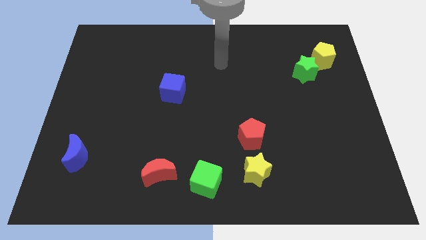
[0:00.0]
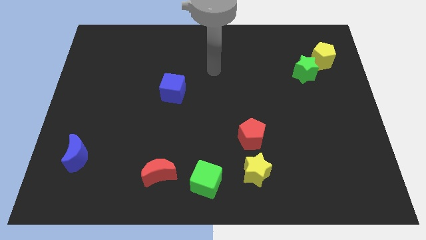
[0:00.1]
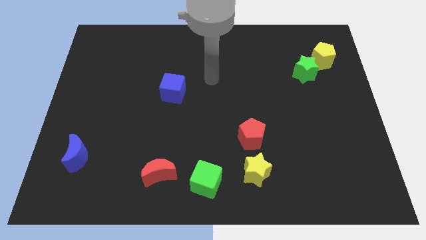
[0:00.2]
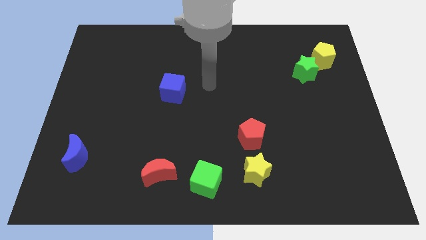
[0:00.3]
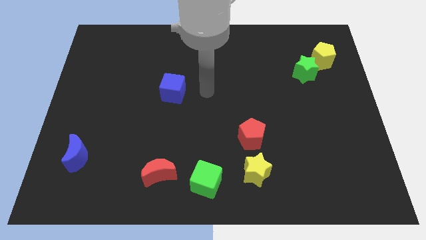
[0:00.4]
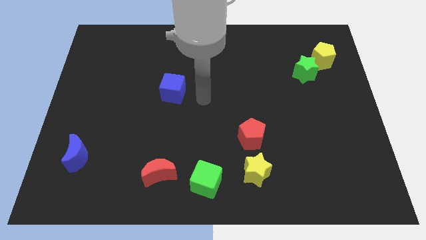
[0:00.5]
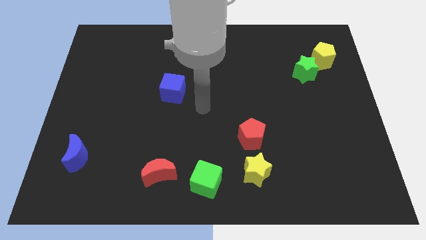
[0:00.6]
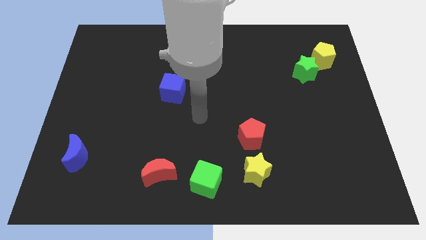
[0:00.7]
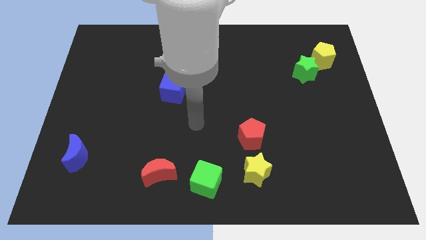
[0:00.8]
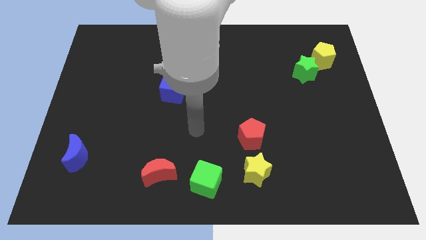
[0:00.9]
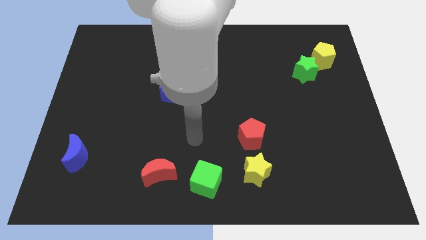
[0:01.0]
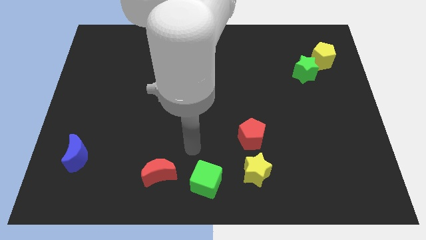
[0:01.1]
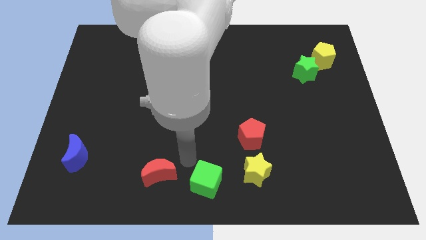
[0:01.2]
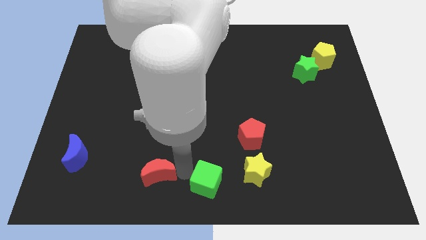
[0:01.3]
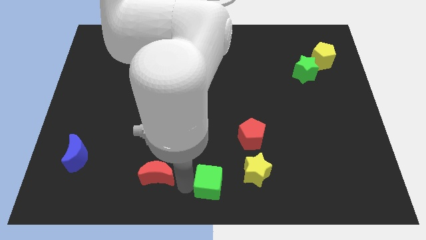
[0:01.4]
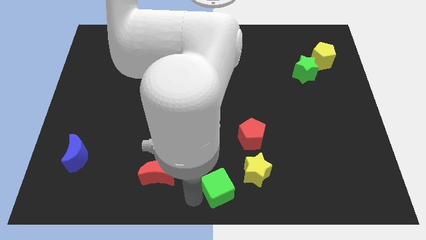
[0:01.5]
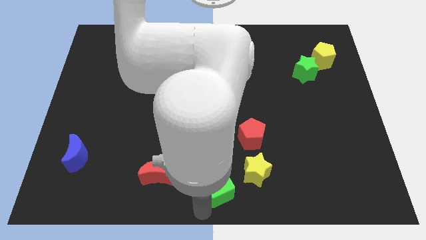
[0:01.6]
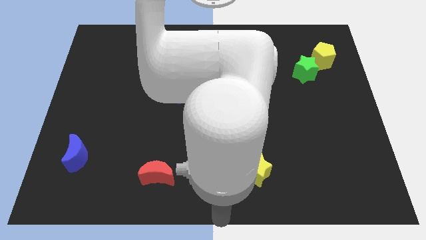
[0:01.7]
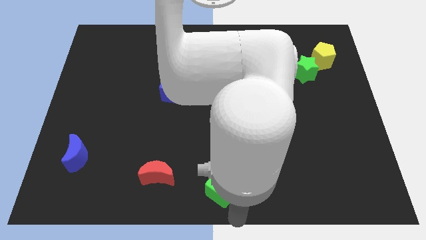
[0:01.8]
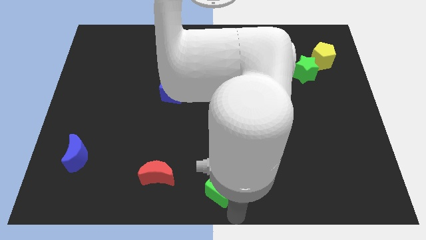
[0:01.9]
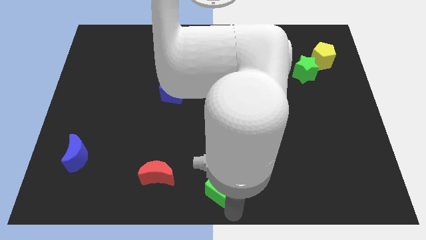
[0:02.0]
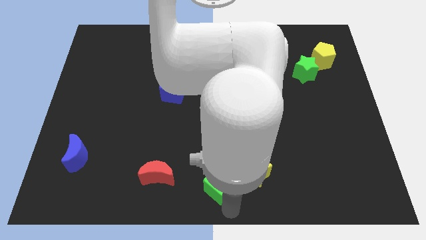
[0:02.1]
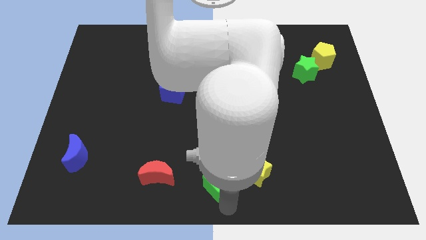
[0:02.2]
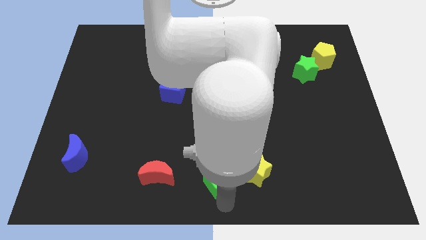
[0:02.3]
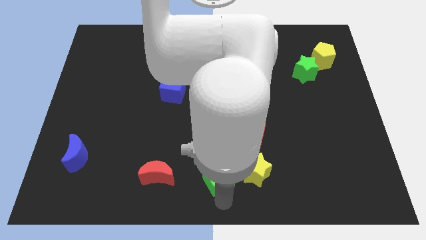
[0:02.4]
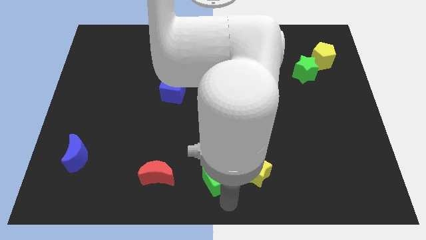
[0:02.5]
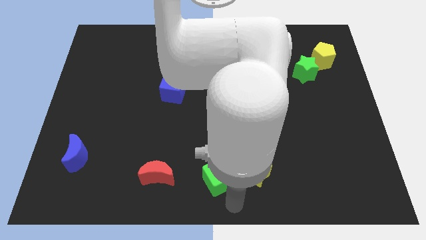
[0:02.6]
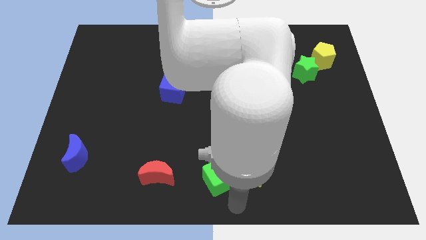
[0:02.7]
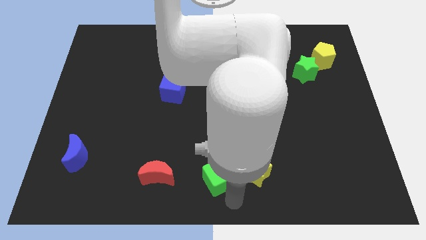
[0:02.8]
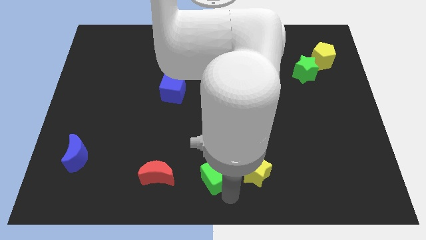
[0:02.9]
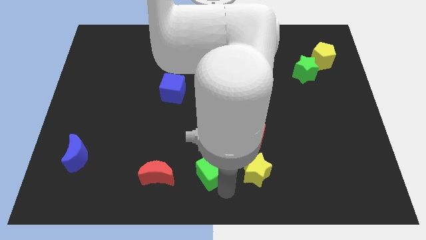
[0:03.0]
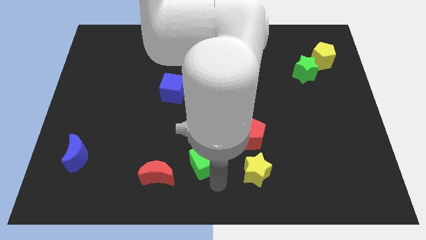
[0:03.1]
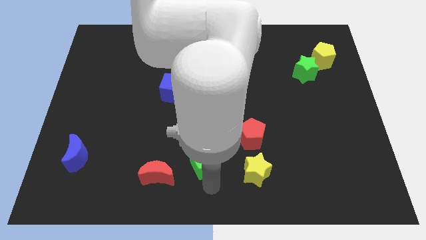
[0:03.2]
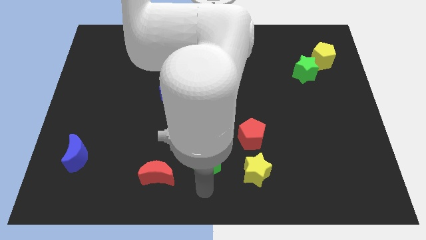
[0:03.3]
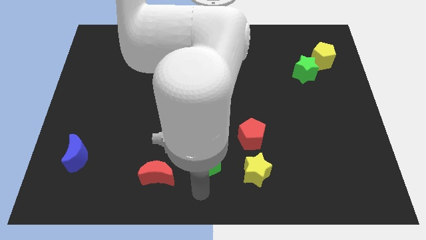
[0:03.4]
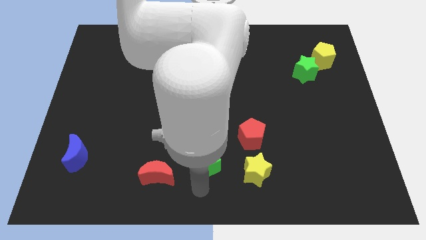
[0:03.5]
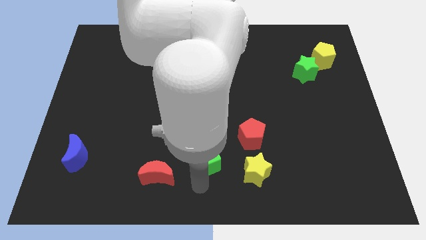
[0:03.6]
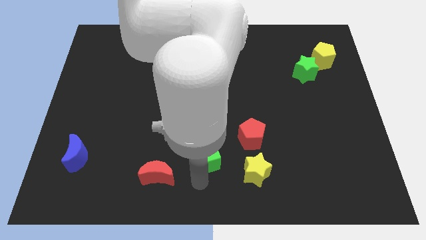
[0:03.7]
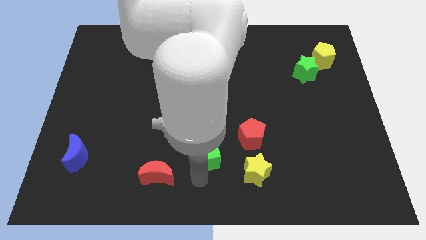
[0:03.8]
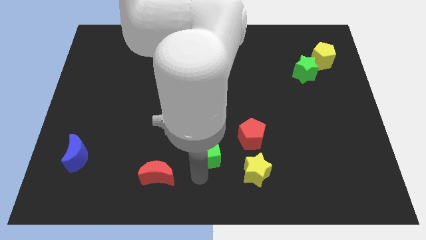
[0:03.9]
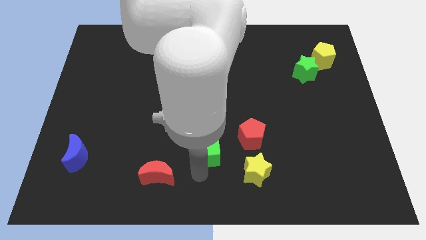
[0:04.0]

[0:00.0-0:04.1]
move the green cube slightly upwards

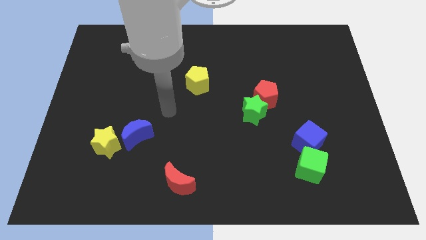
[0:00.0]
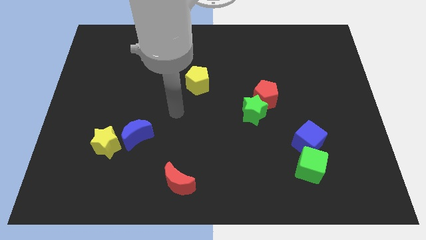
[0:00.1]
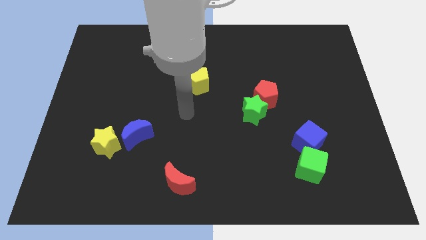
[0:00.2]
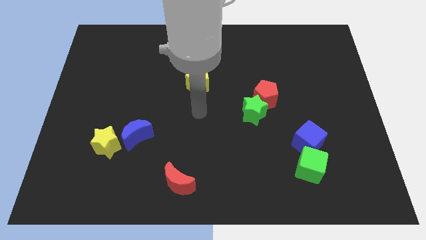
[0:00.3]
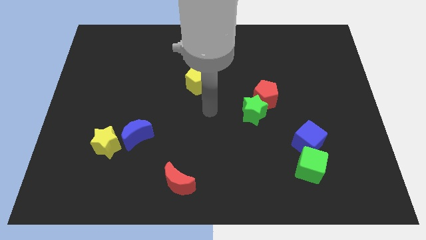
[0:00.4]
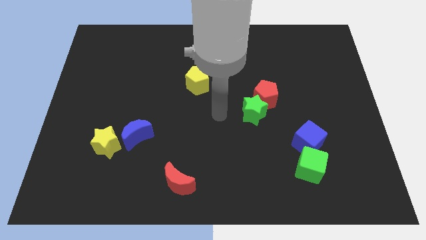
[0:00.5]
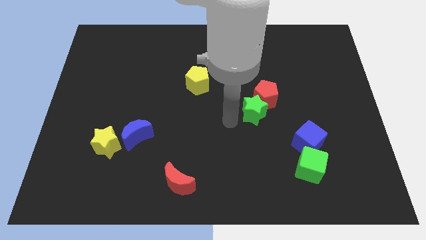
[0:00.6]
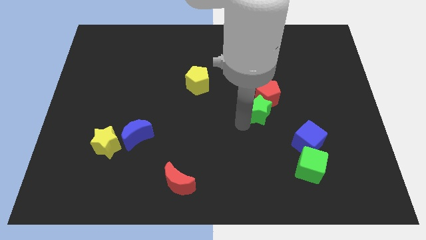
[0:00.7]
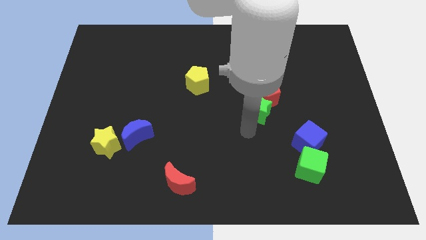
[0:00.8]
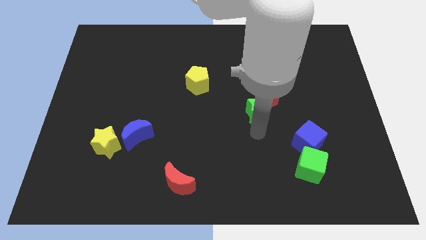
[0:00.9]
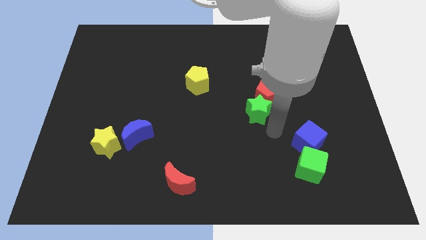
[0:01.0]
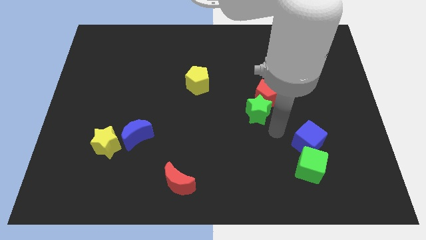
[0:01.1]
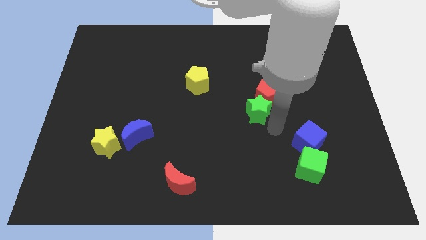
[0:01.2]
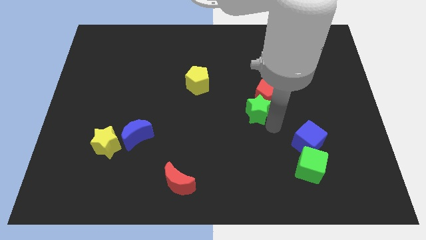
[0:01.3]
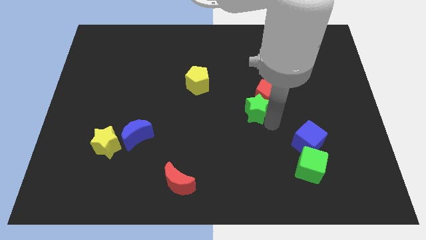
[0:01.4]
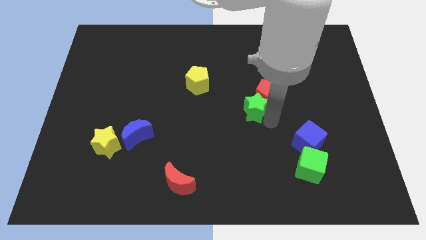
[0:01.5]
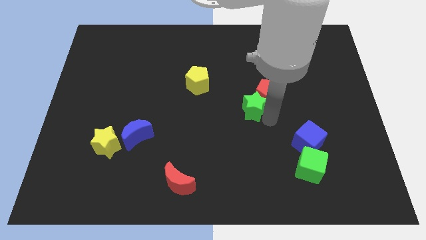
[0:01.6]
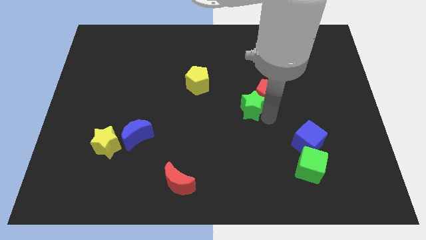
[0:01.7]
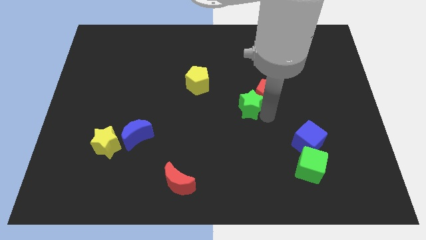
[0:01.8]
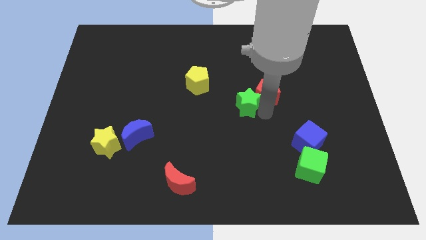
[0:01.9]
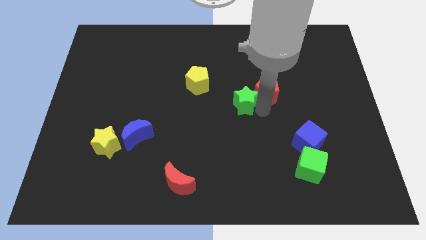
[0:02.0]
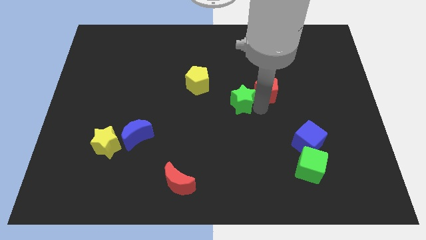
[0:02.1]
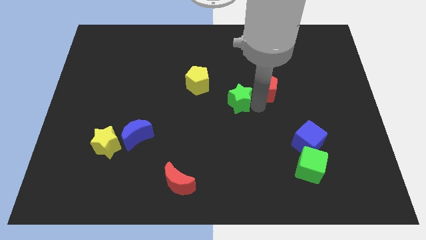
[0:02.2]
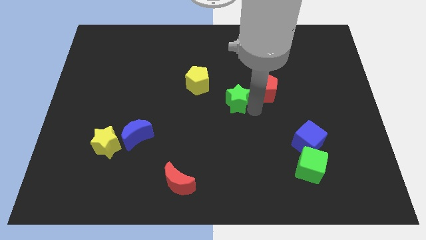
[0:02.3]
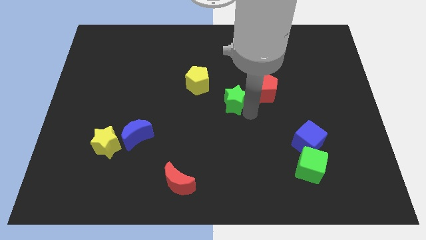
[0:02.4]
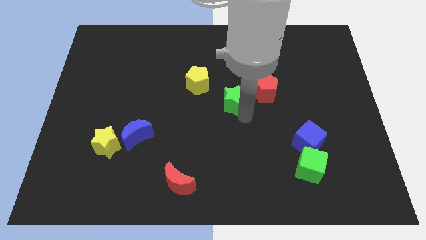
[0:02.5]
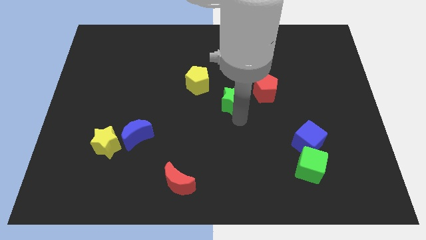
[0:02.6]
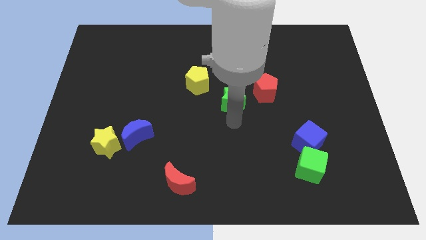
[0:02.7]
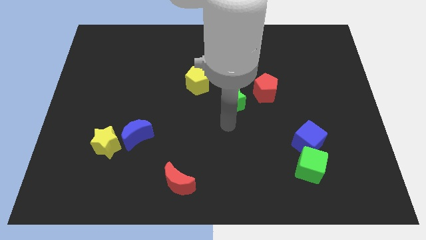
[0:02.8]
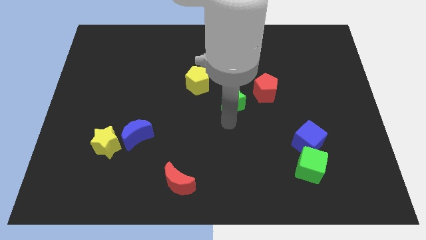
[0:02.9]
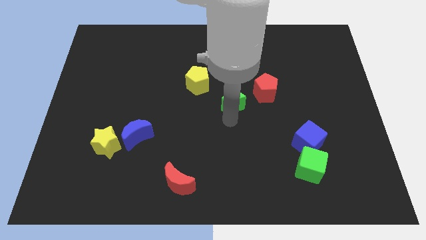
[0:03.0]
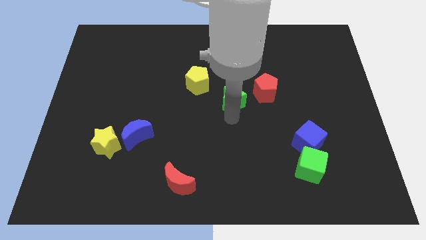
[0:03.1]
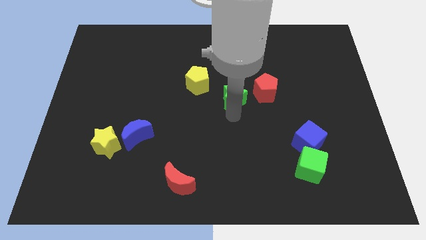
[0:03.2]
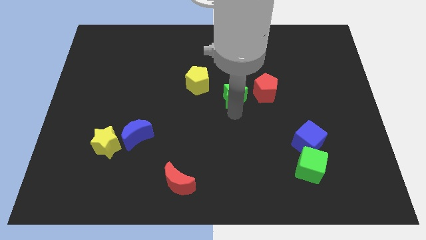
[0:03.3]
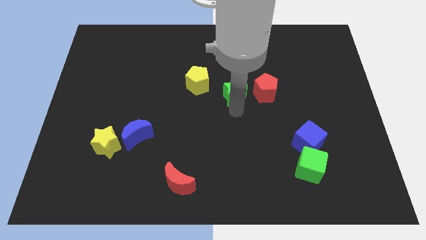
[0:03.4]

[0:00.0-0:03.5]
slightly slide the green star upwards and then left
